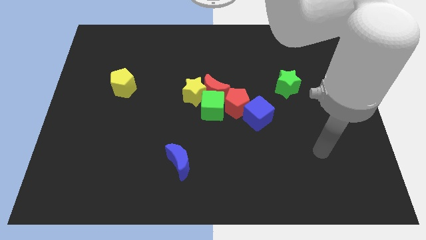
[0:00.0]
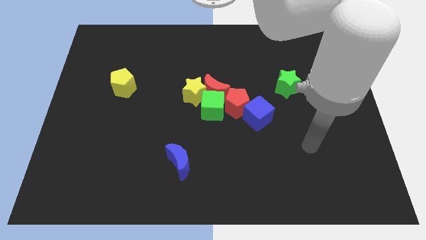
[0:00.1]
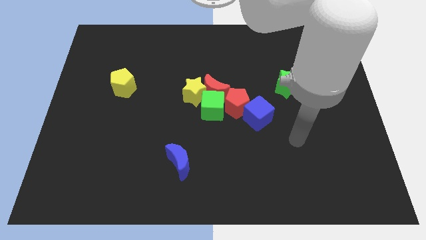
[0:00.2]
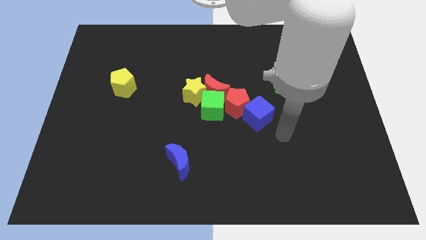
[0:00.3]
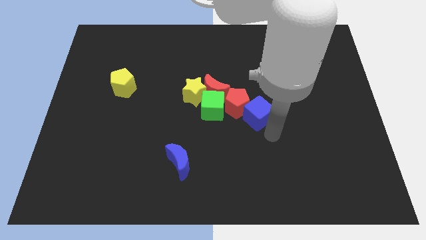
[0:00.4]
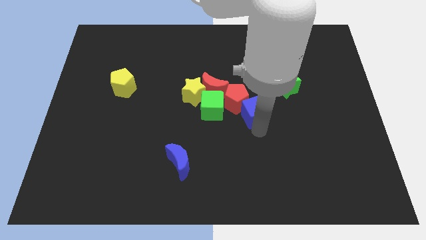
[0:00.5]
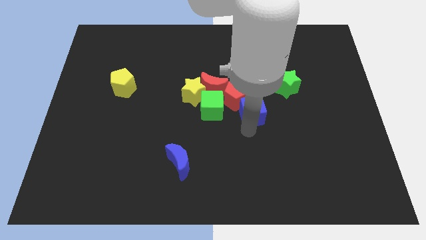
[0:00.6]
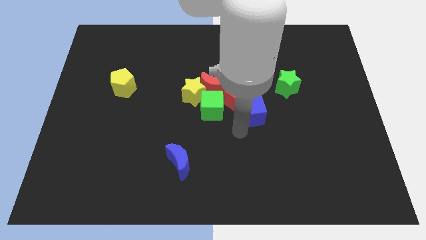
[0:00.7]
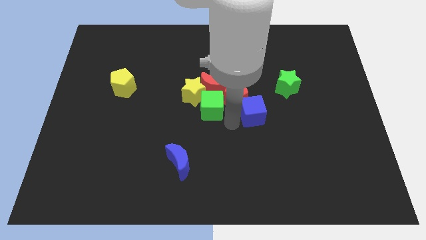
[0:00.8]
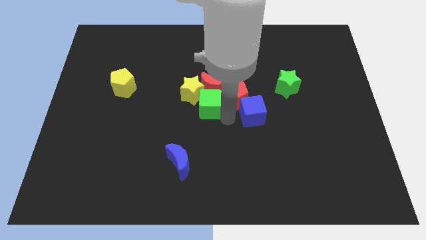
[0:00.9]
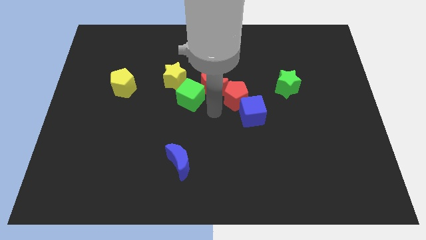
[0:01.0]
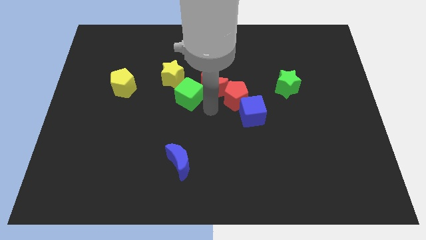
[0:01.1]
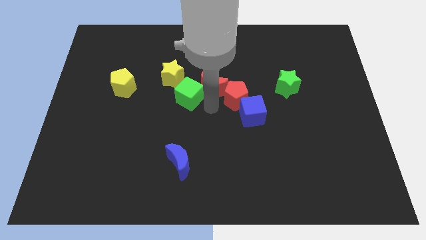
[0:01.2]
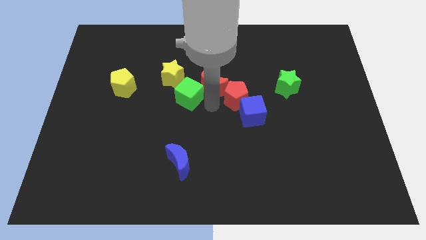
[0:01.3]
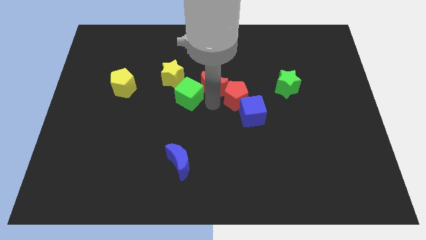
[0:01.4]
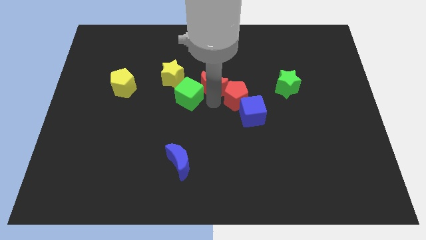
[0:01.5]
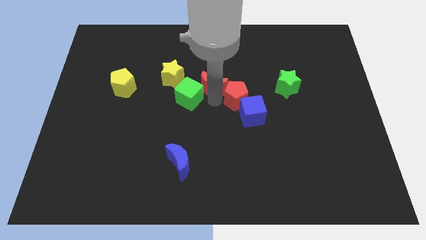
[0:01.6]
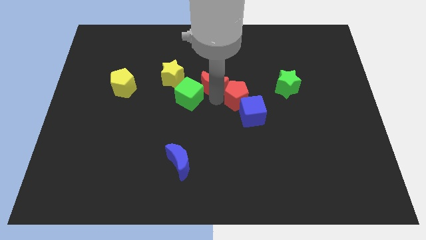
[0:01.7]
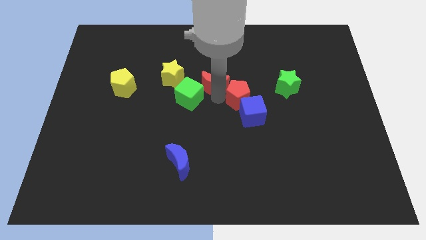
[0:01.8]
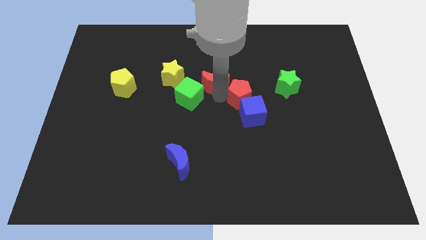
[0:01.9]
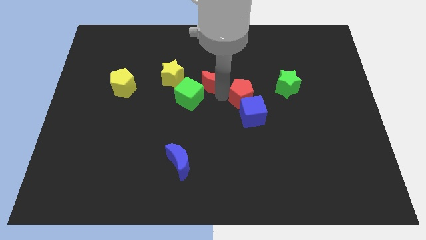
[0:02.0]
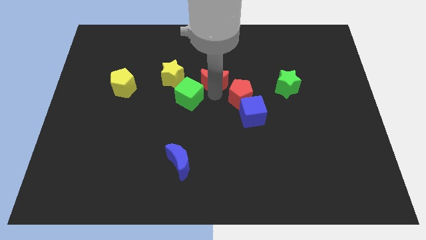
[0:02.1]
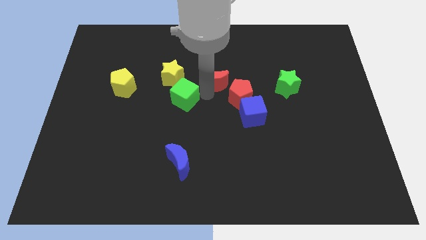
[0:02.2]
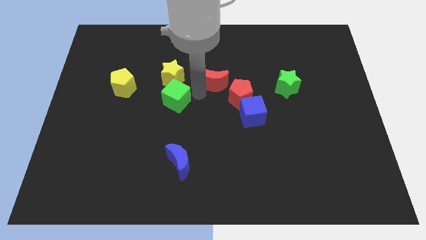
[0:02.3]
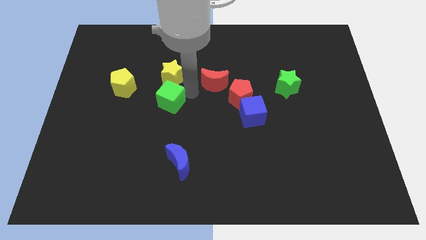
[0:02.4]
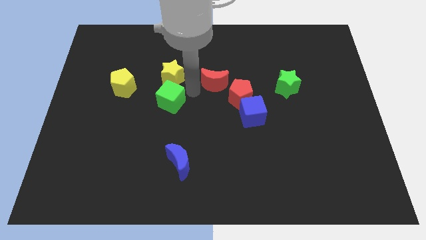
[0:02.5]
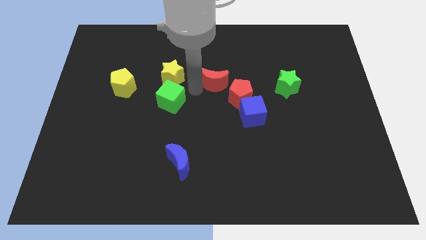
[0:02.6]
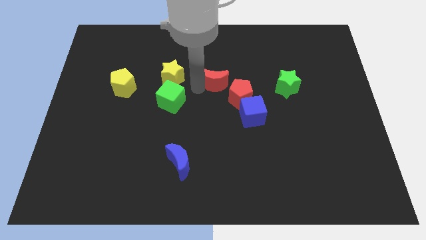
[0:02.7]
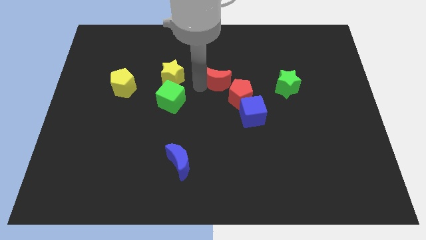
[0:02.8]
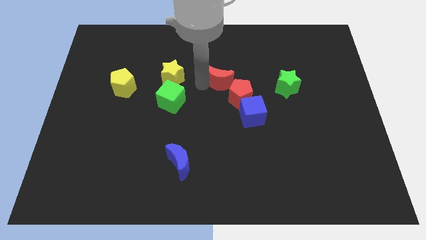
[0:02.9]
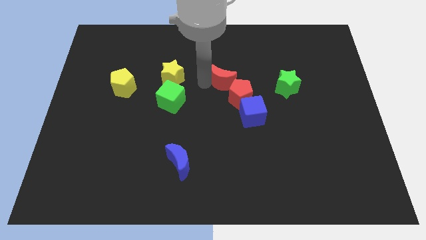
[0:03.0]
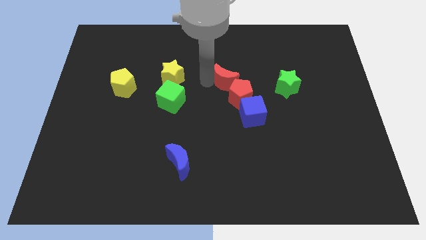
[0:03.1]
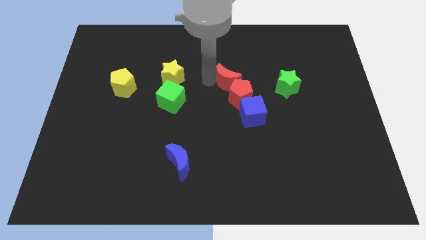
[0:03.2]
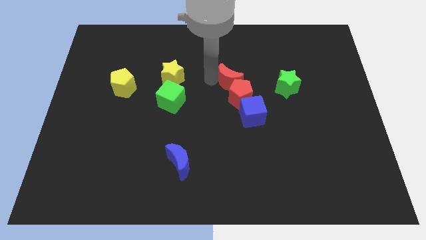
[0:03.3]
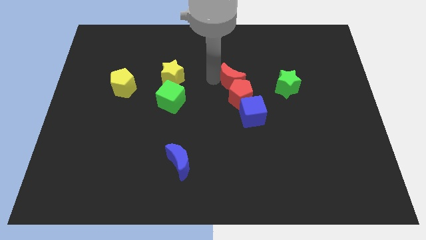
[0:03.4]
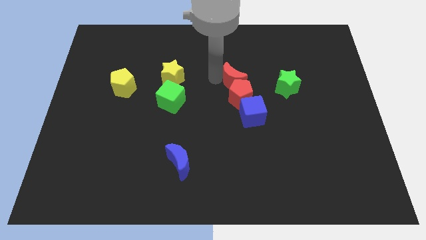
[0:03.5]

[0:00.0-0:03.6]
separate the red moon from the clump

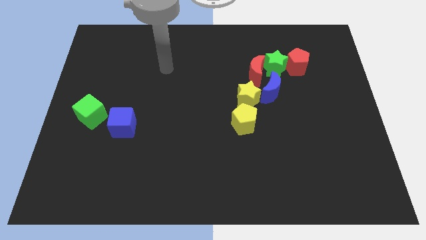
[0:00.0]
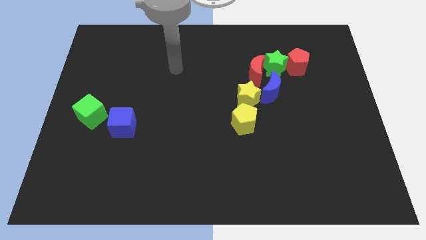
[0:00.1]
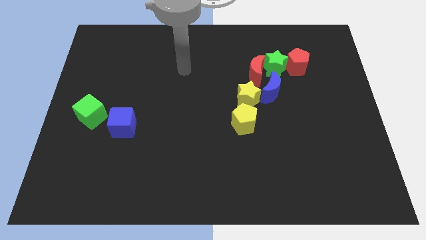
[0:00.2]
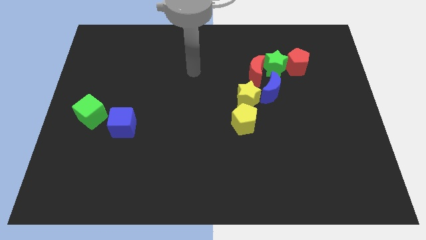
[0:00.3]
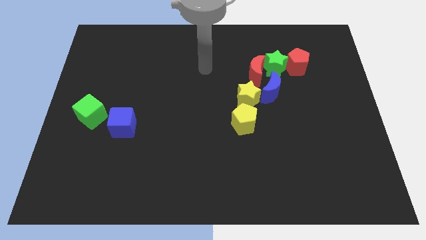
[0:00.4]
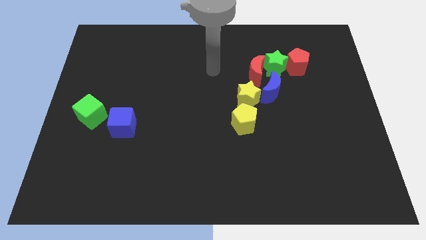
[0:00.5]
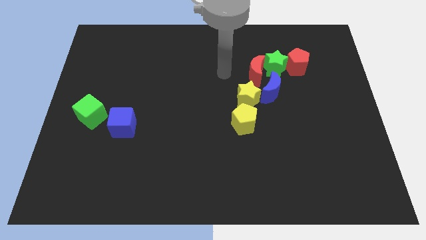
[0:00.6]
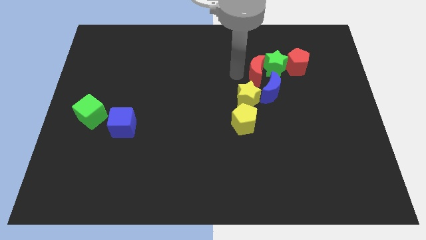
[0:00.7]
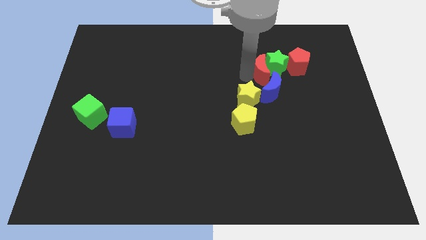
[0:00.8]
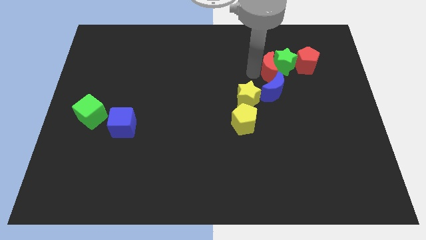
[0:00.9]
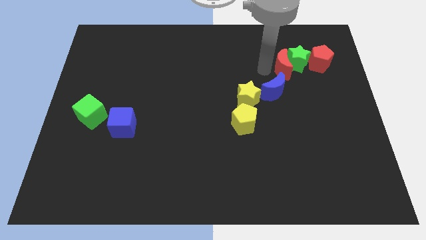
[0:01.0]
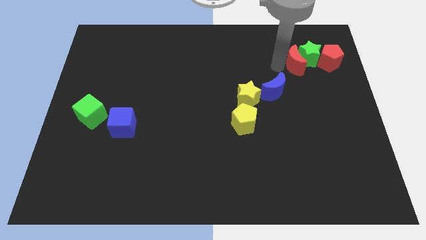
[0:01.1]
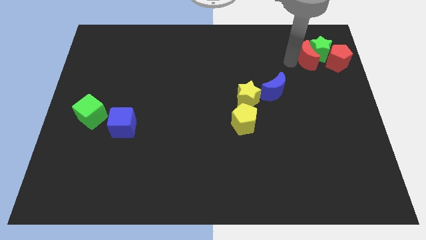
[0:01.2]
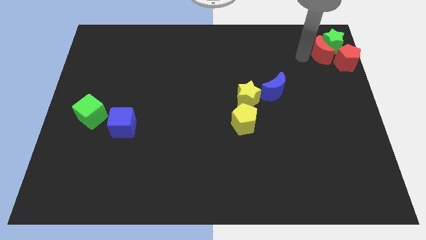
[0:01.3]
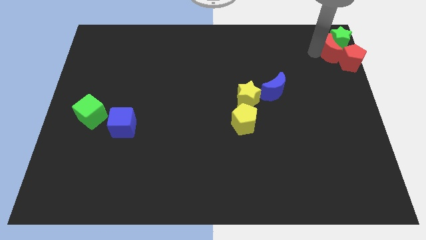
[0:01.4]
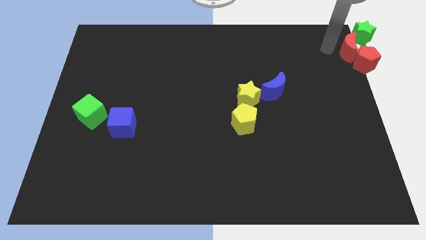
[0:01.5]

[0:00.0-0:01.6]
move the red pentagon away from the green star

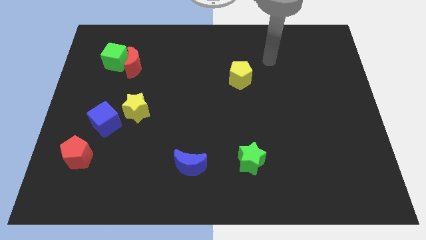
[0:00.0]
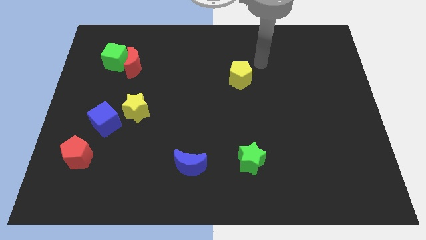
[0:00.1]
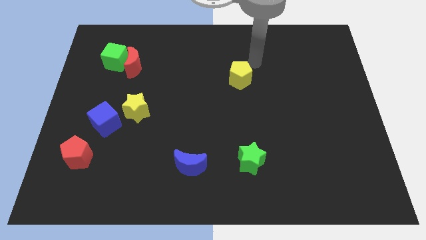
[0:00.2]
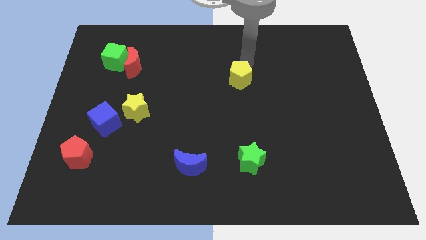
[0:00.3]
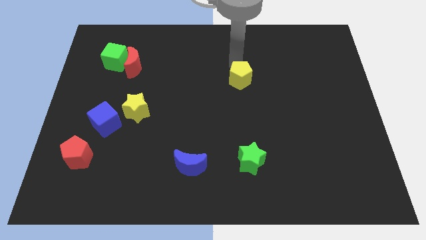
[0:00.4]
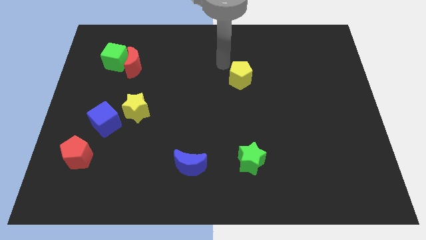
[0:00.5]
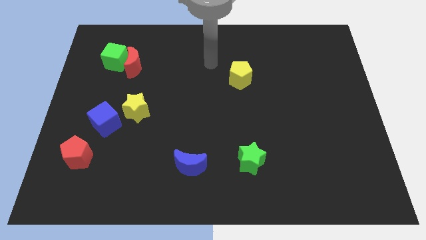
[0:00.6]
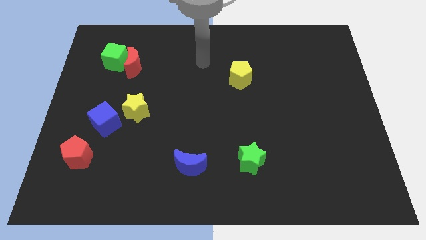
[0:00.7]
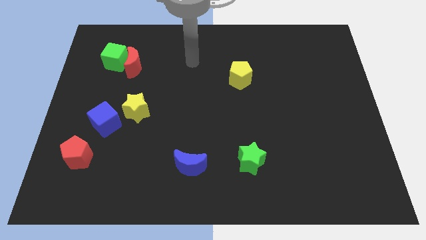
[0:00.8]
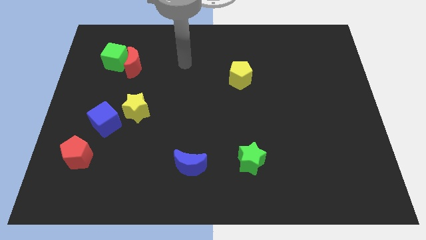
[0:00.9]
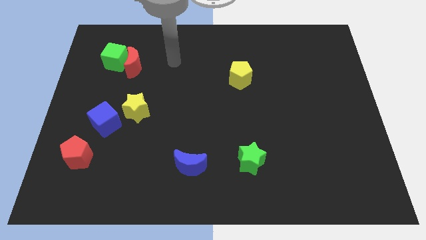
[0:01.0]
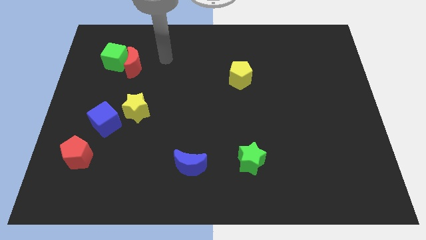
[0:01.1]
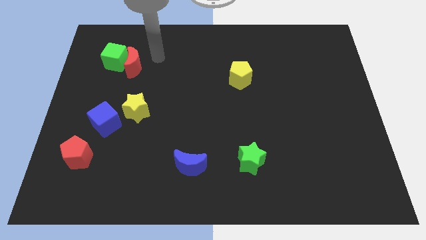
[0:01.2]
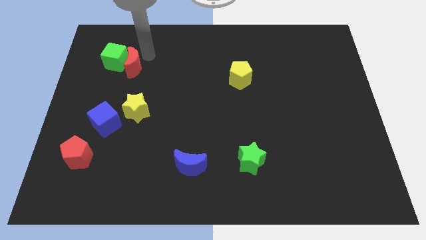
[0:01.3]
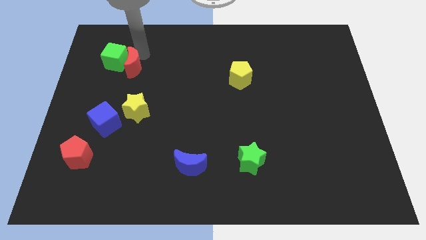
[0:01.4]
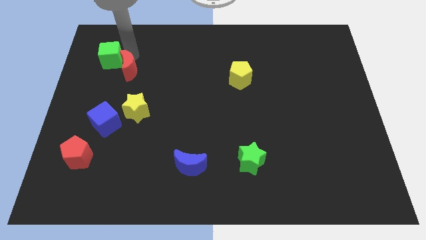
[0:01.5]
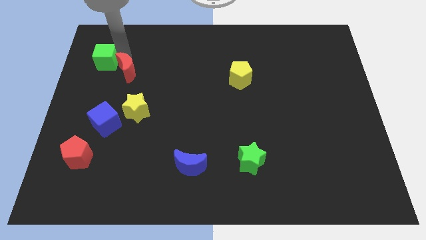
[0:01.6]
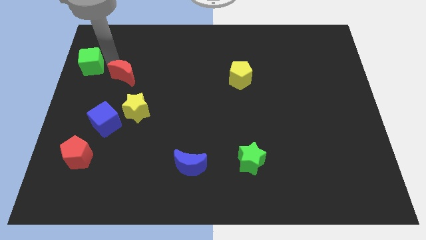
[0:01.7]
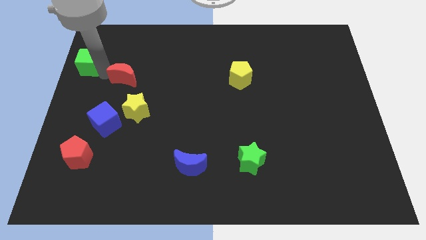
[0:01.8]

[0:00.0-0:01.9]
pull the red moon apart from the green cube

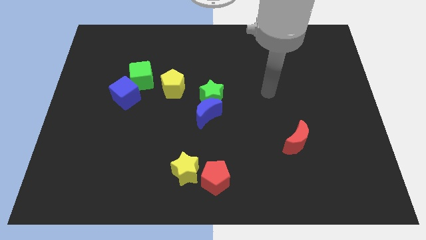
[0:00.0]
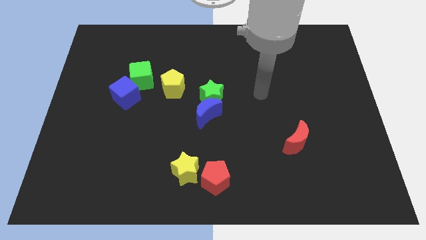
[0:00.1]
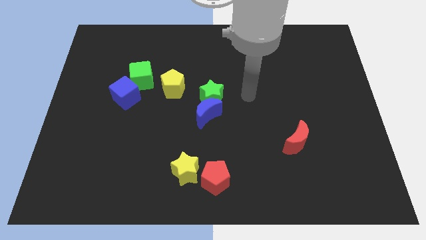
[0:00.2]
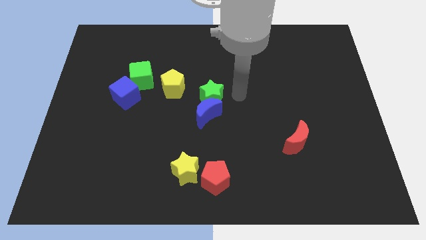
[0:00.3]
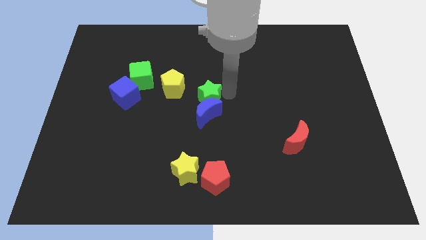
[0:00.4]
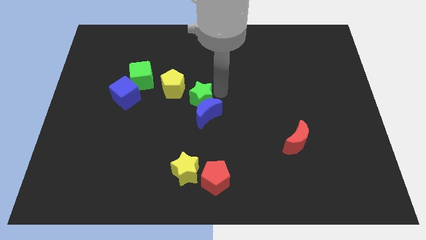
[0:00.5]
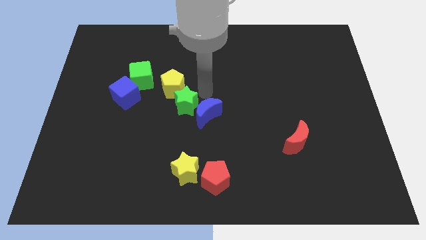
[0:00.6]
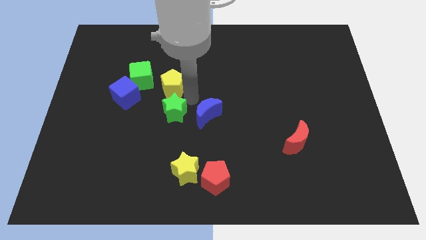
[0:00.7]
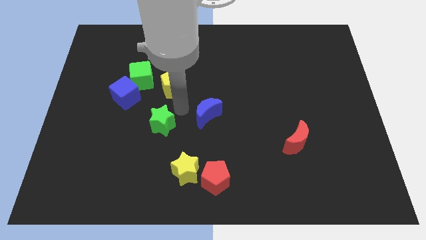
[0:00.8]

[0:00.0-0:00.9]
pull the blue moon apart from the green star

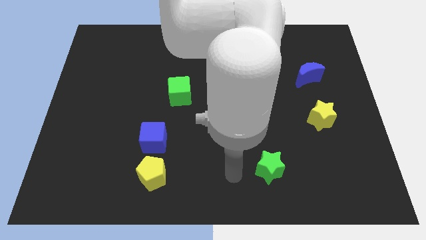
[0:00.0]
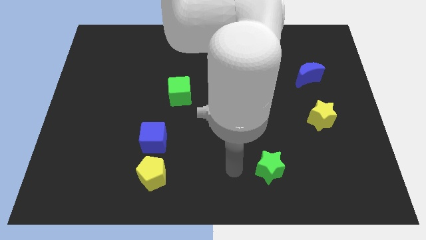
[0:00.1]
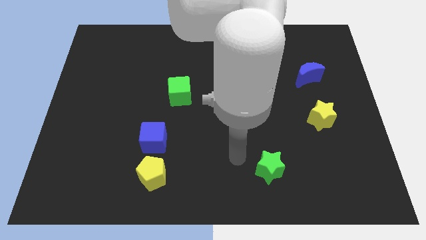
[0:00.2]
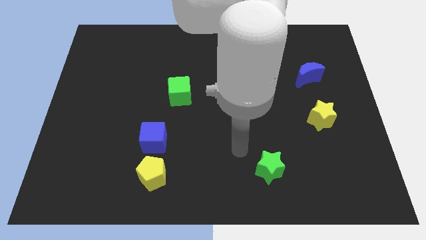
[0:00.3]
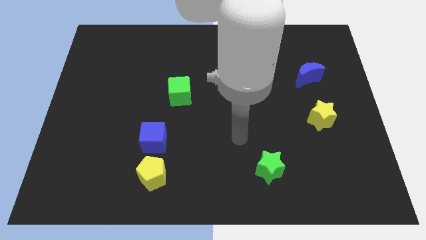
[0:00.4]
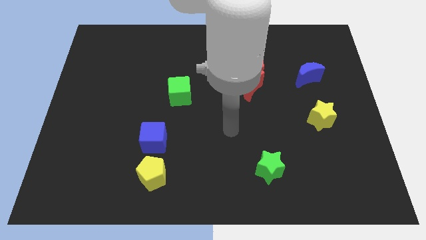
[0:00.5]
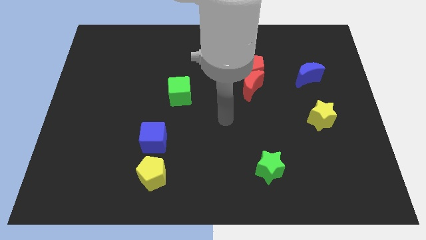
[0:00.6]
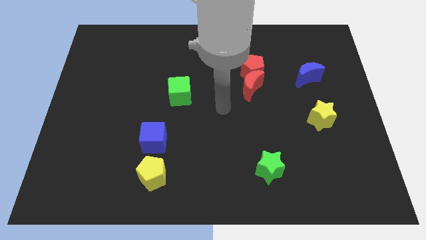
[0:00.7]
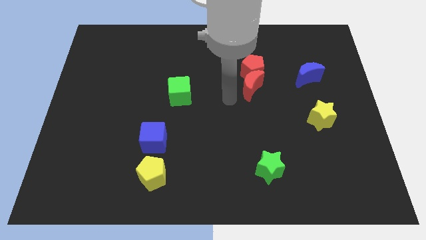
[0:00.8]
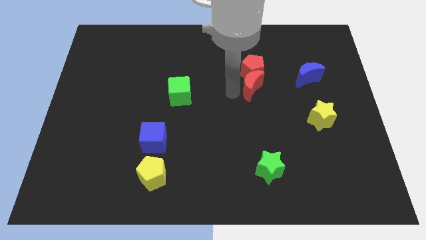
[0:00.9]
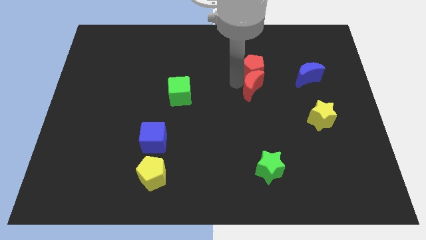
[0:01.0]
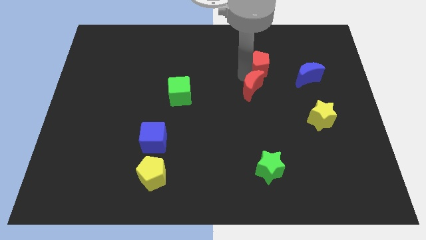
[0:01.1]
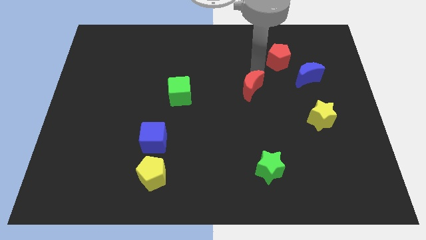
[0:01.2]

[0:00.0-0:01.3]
move the red moon away from the red pentagon
